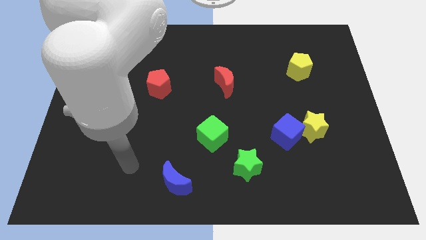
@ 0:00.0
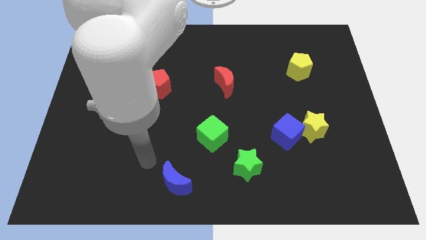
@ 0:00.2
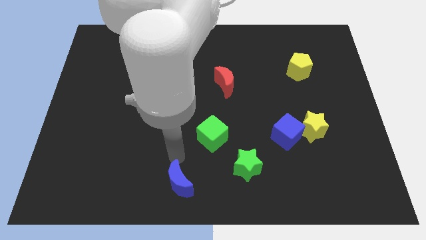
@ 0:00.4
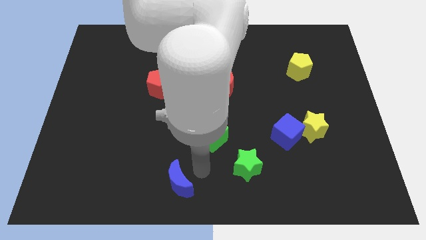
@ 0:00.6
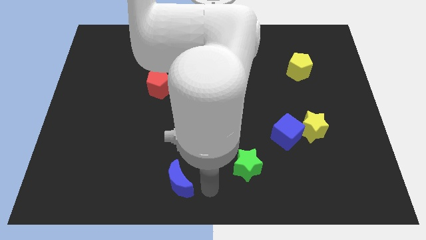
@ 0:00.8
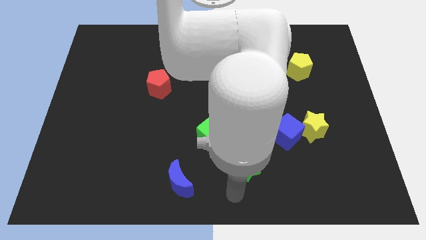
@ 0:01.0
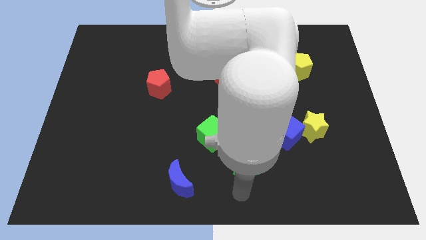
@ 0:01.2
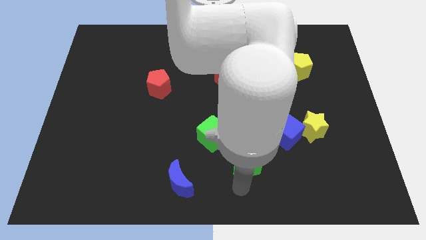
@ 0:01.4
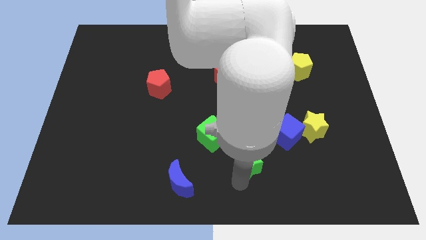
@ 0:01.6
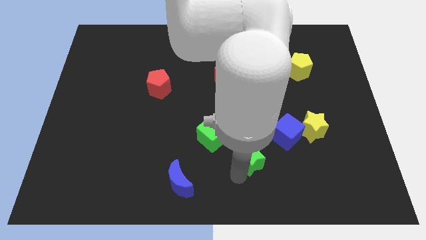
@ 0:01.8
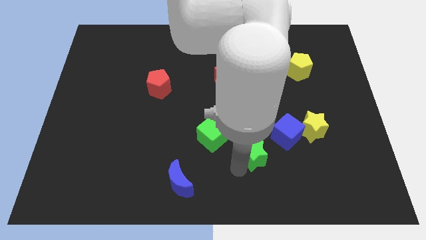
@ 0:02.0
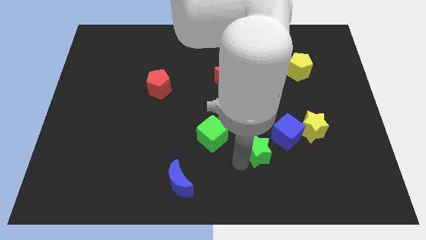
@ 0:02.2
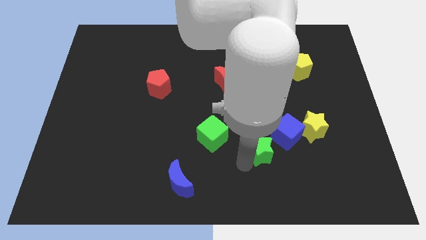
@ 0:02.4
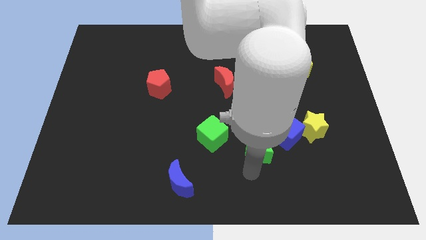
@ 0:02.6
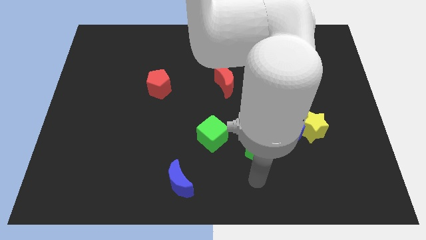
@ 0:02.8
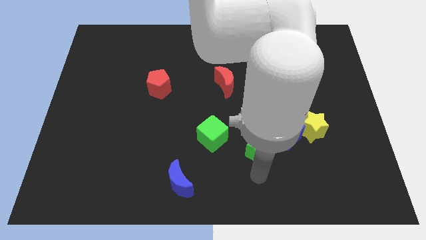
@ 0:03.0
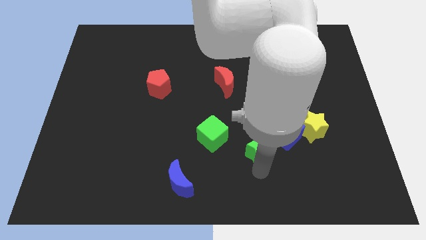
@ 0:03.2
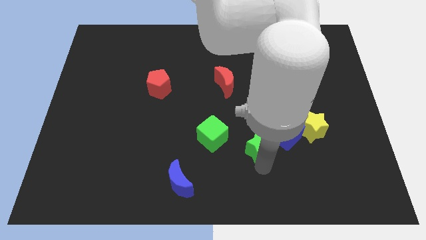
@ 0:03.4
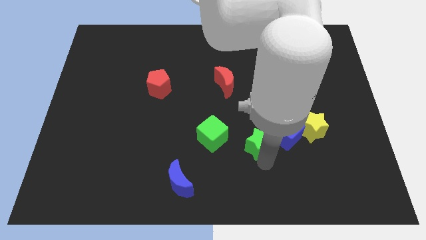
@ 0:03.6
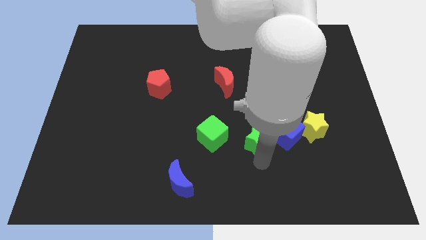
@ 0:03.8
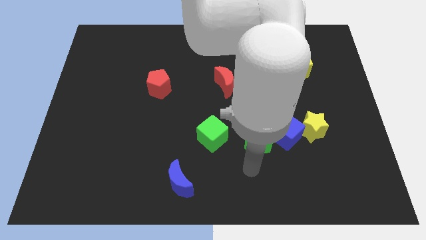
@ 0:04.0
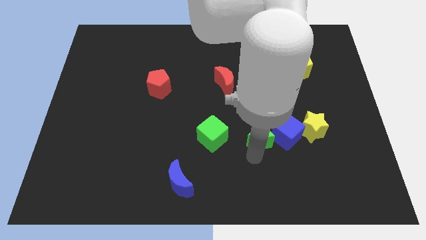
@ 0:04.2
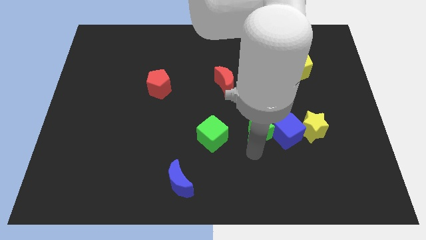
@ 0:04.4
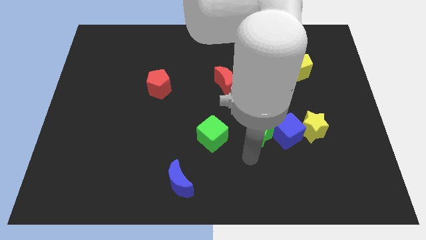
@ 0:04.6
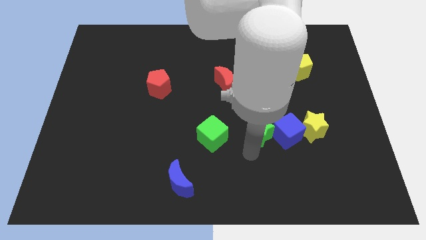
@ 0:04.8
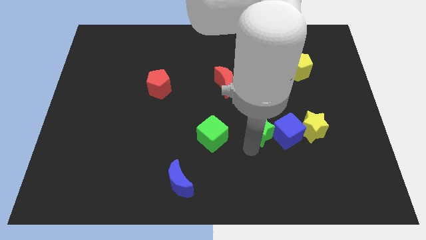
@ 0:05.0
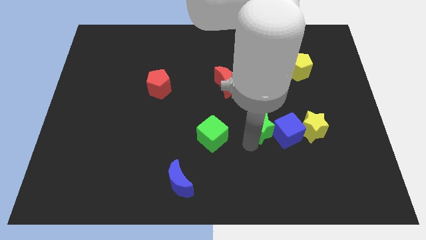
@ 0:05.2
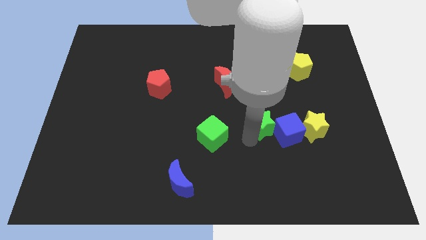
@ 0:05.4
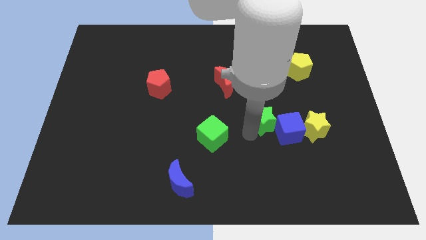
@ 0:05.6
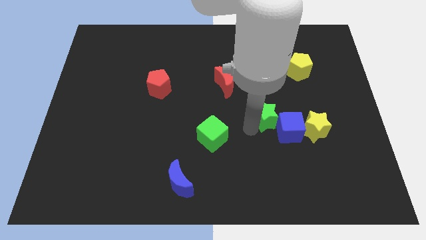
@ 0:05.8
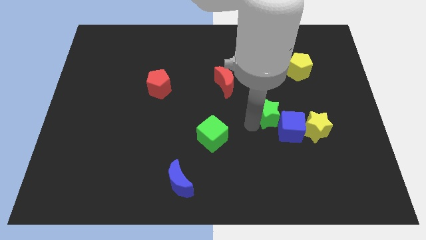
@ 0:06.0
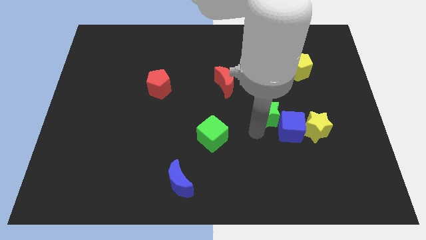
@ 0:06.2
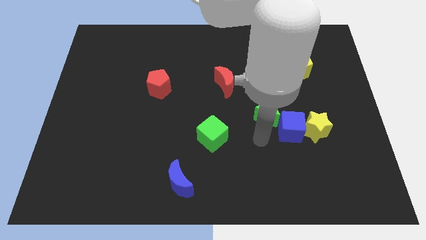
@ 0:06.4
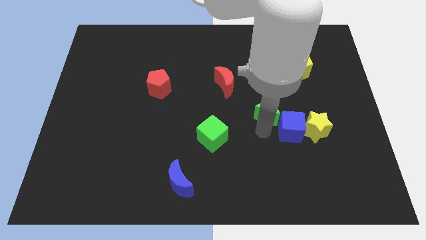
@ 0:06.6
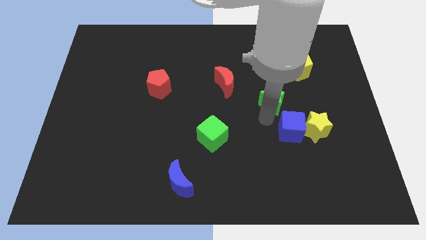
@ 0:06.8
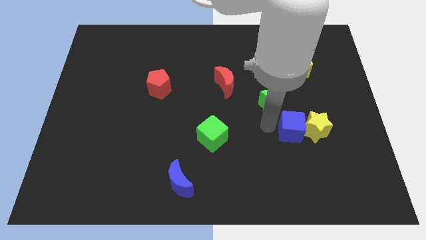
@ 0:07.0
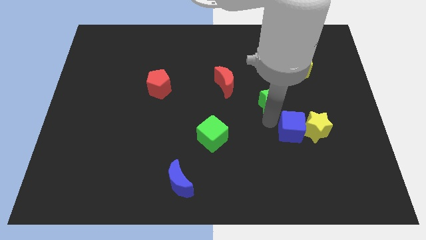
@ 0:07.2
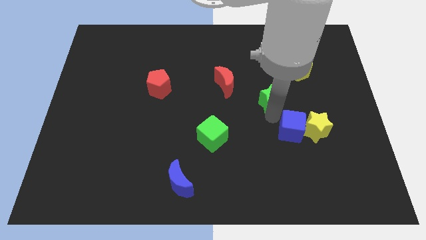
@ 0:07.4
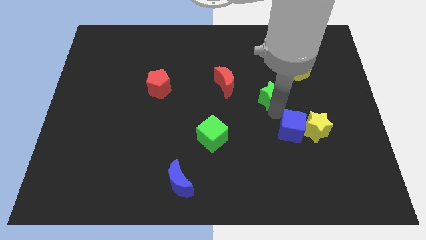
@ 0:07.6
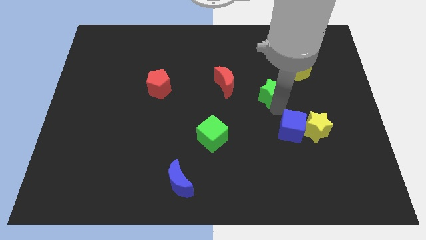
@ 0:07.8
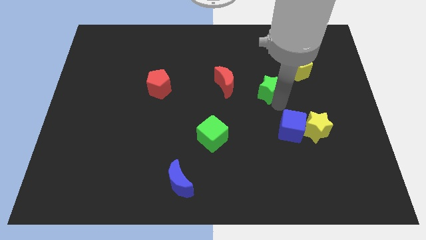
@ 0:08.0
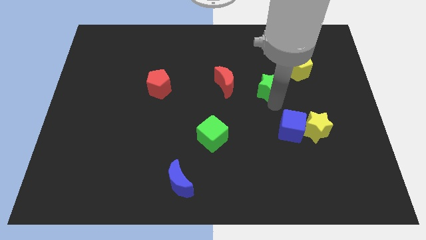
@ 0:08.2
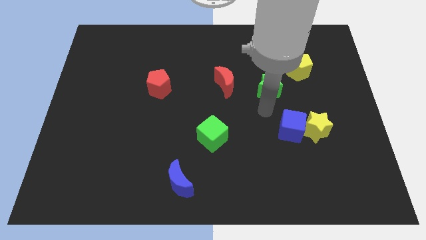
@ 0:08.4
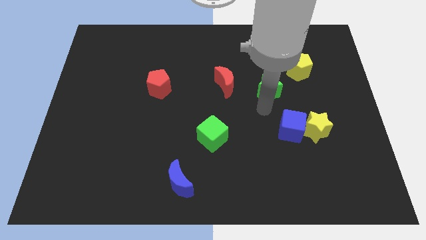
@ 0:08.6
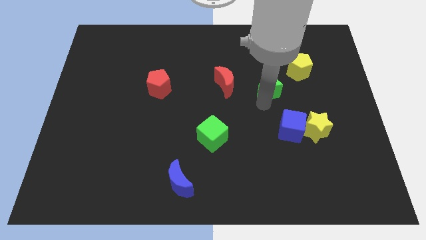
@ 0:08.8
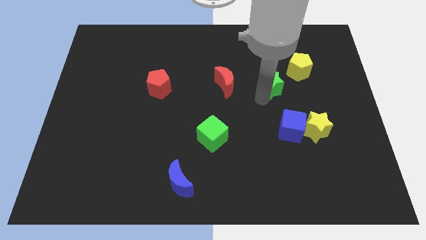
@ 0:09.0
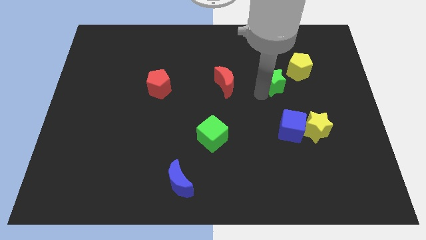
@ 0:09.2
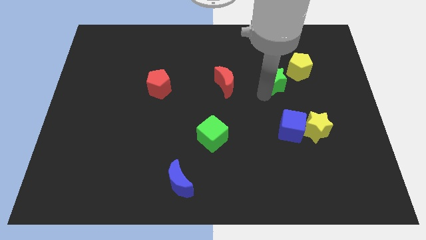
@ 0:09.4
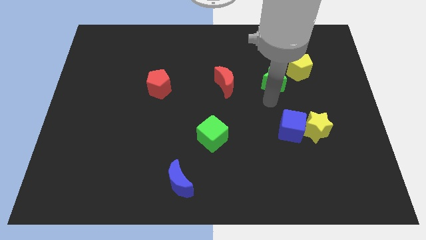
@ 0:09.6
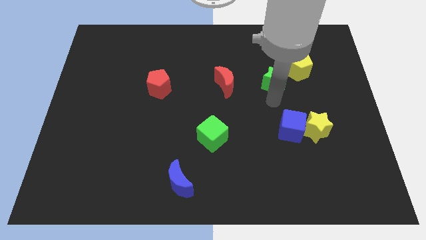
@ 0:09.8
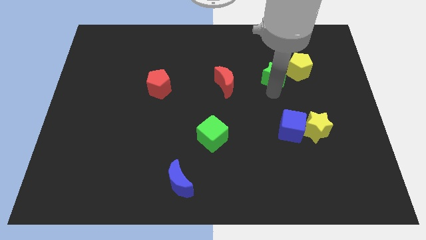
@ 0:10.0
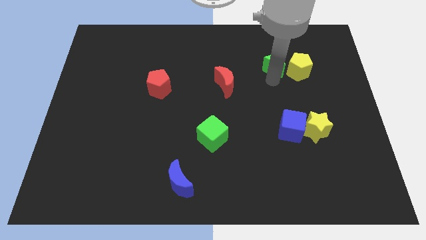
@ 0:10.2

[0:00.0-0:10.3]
move the green star to the top left side of the yellow pentagon

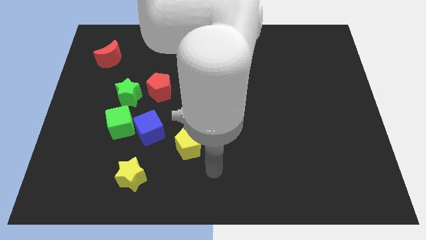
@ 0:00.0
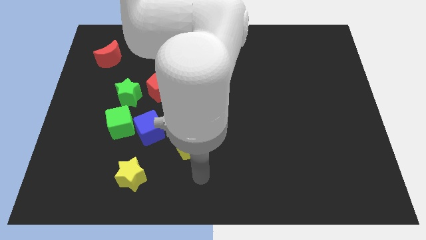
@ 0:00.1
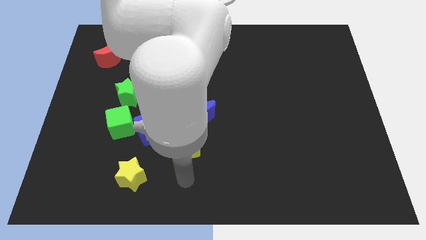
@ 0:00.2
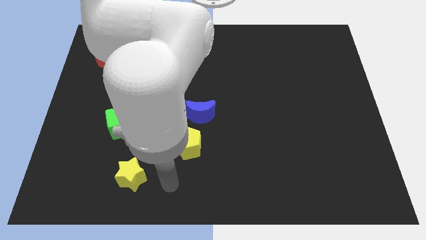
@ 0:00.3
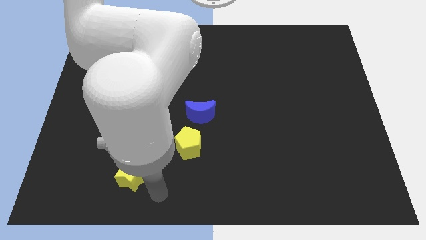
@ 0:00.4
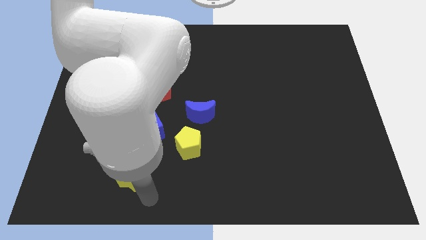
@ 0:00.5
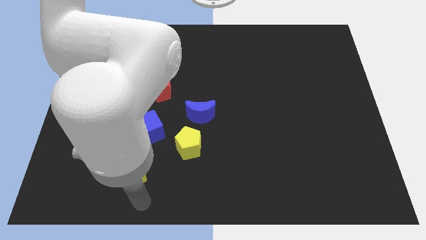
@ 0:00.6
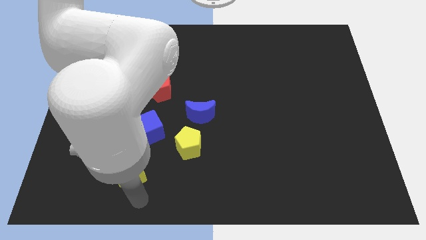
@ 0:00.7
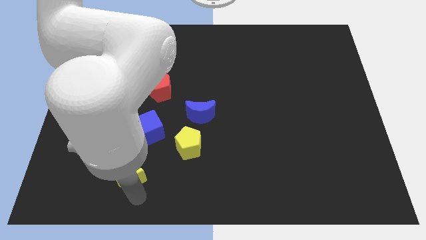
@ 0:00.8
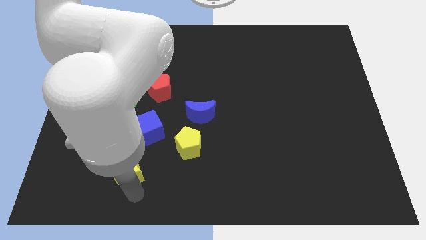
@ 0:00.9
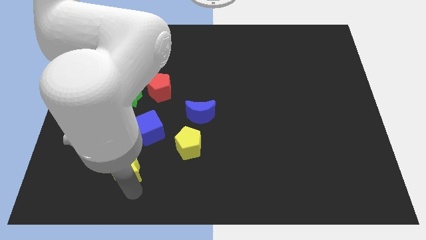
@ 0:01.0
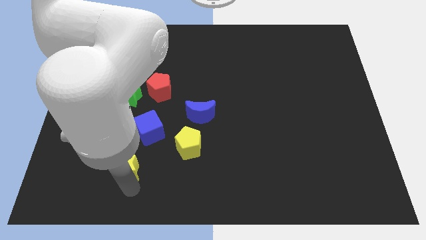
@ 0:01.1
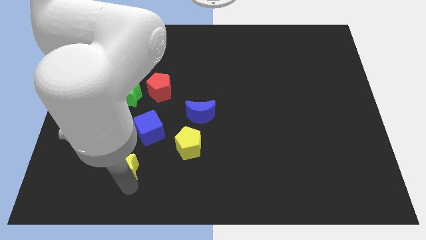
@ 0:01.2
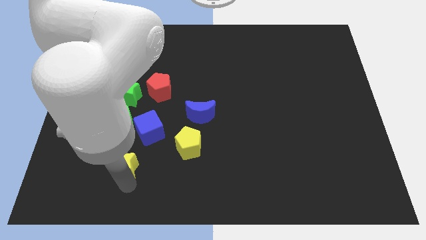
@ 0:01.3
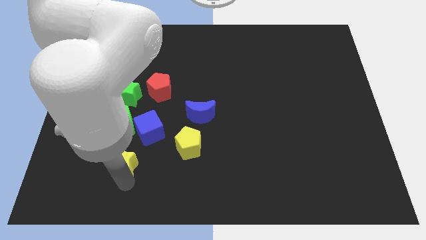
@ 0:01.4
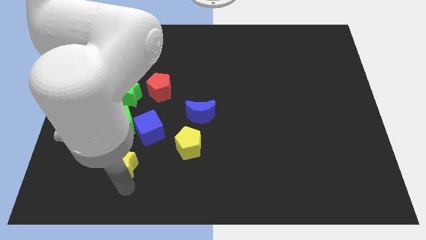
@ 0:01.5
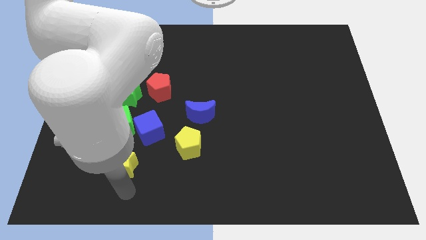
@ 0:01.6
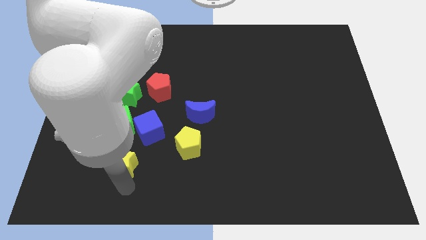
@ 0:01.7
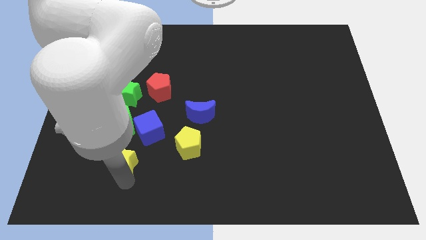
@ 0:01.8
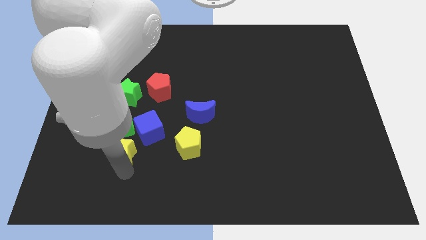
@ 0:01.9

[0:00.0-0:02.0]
push the yellow star to the bottom side of the green star
